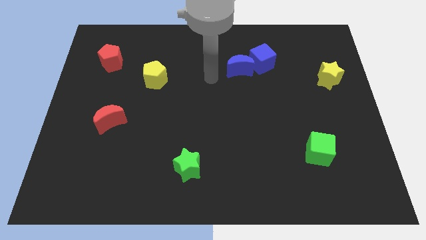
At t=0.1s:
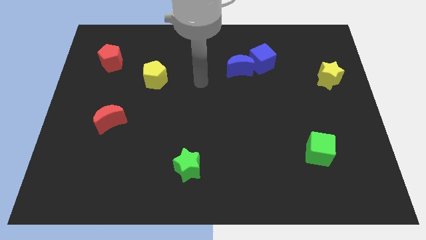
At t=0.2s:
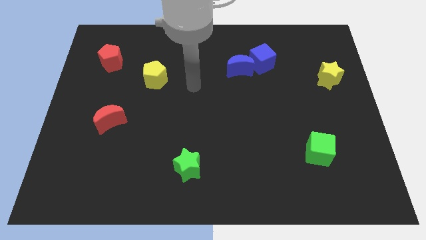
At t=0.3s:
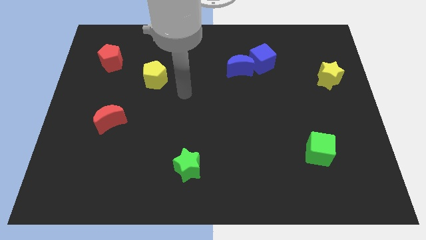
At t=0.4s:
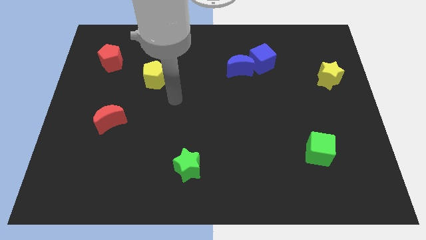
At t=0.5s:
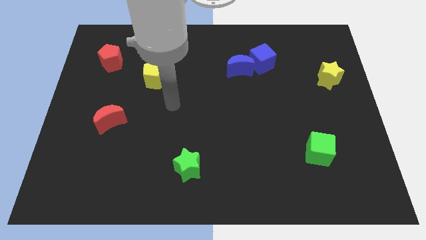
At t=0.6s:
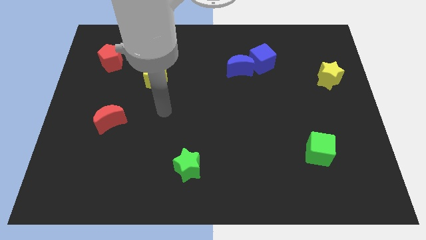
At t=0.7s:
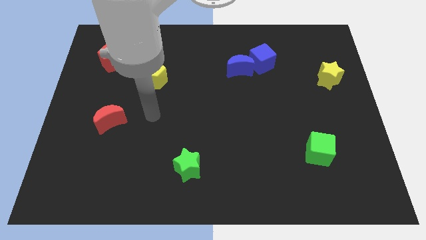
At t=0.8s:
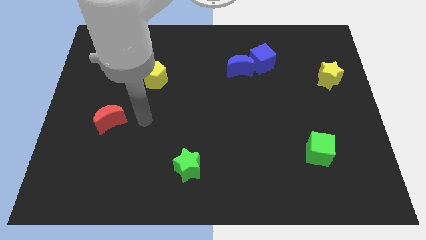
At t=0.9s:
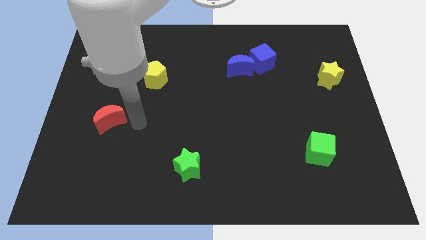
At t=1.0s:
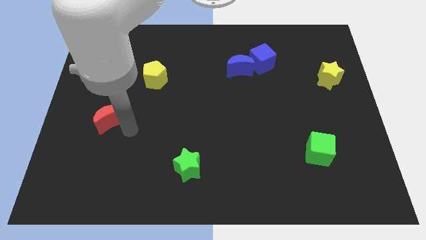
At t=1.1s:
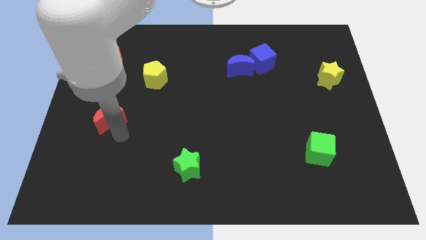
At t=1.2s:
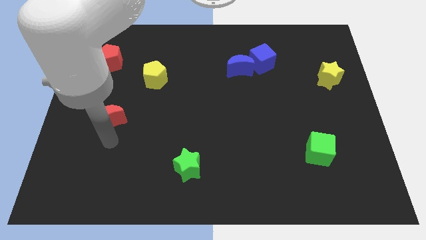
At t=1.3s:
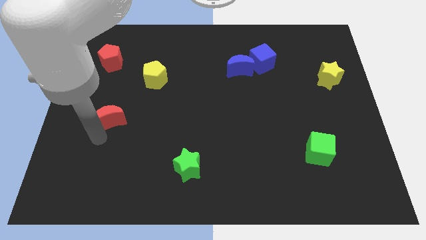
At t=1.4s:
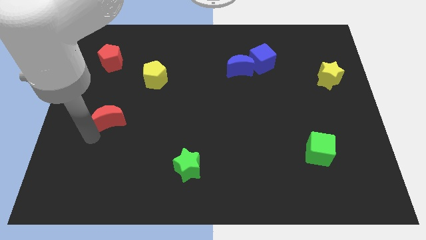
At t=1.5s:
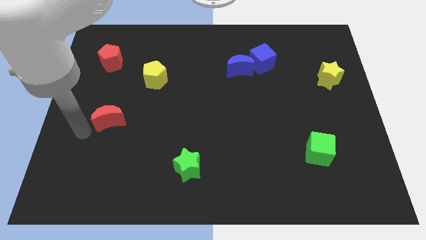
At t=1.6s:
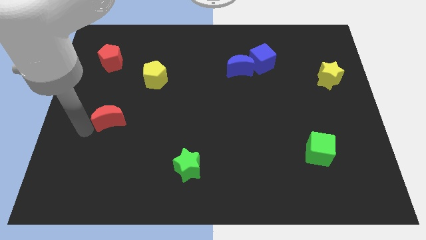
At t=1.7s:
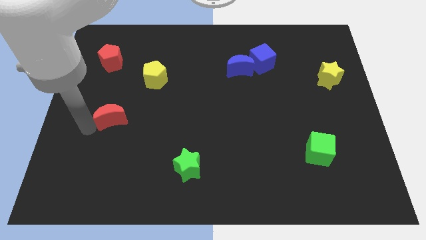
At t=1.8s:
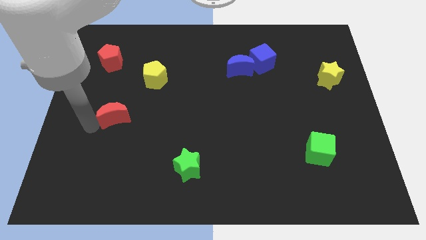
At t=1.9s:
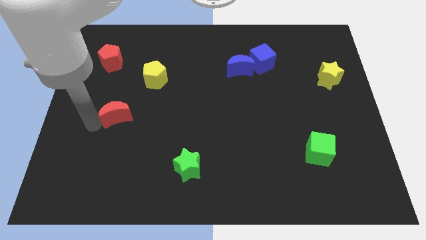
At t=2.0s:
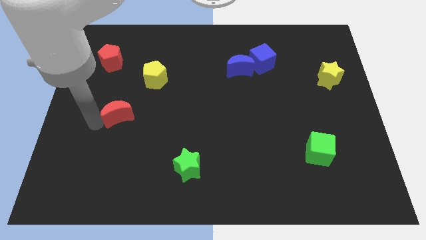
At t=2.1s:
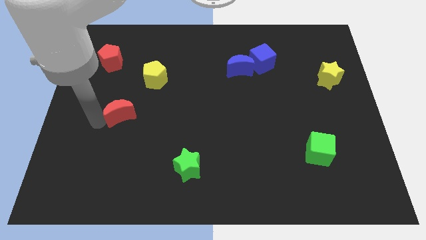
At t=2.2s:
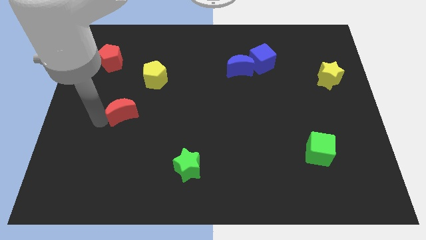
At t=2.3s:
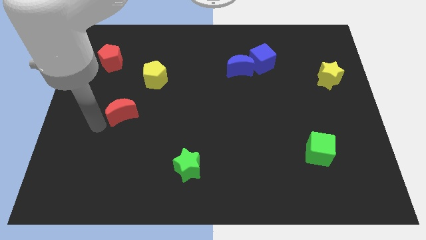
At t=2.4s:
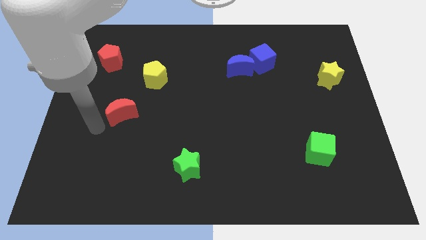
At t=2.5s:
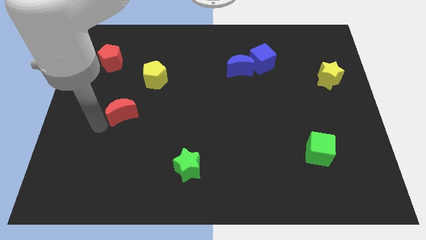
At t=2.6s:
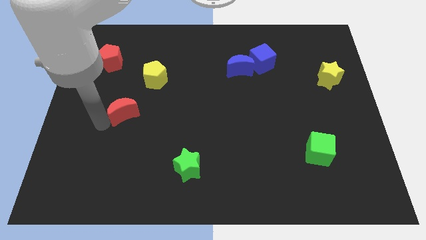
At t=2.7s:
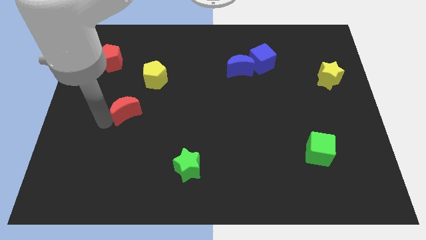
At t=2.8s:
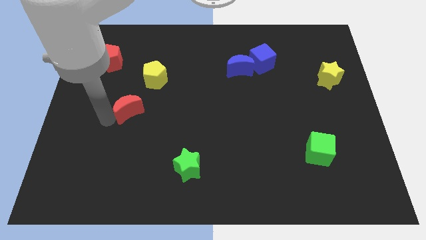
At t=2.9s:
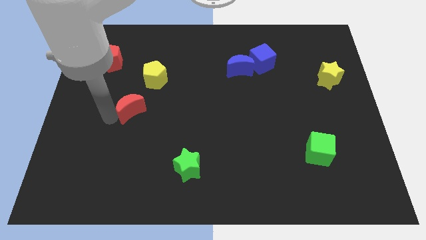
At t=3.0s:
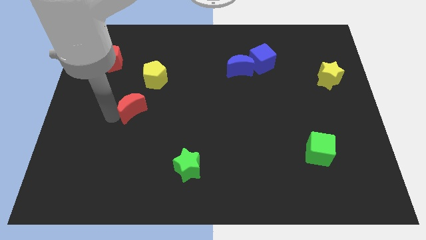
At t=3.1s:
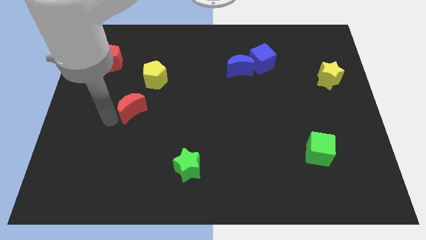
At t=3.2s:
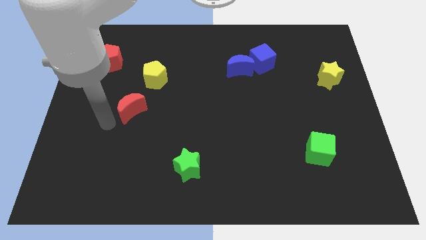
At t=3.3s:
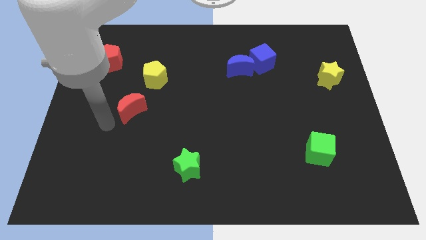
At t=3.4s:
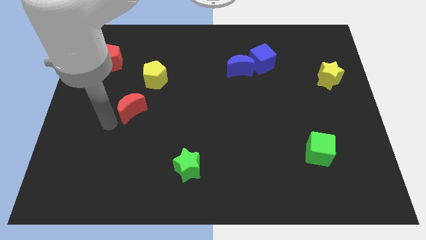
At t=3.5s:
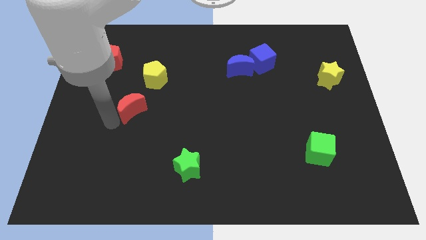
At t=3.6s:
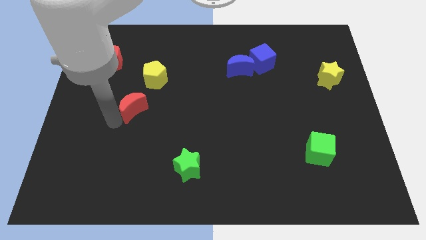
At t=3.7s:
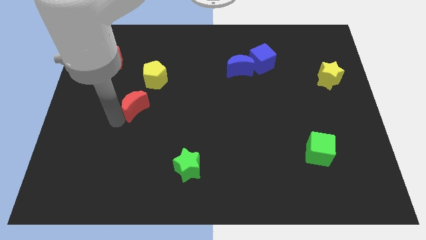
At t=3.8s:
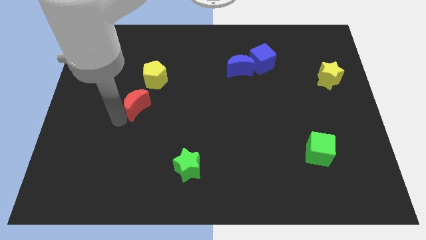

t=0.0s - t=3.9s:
slightly push the red moon diagonally up and right

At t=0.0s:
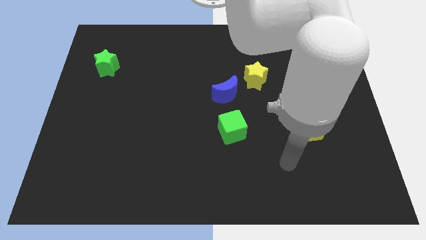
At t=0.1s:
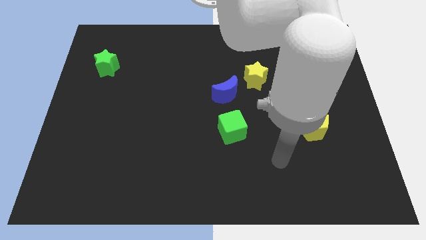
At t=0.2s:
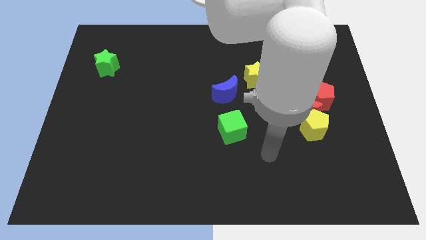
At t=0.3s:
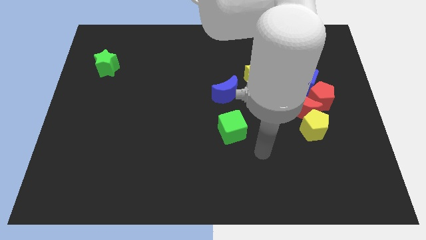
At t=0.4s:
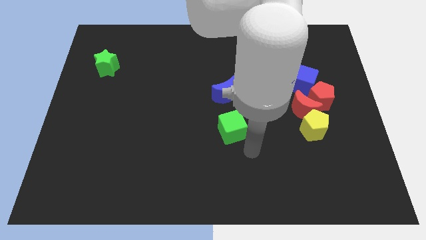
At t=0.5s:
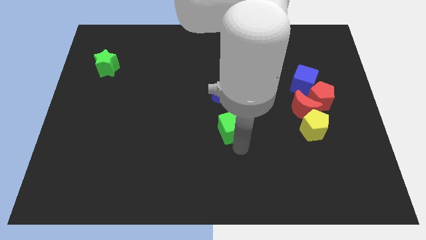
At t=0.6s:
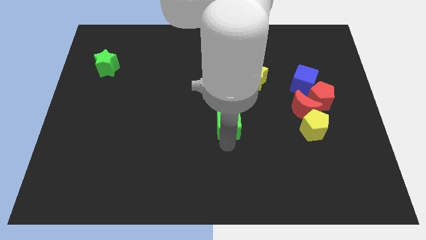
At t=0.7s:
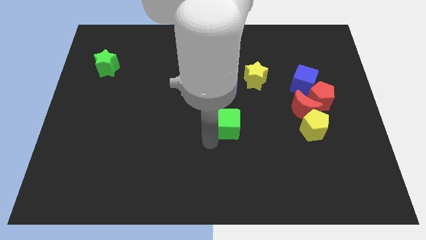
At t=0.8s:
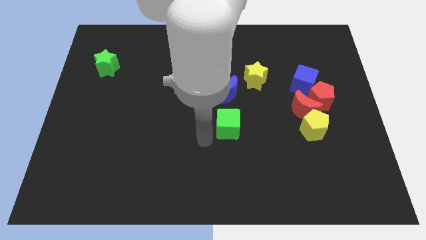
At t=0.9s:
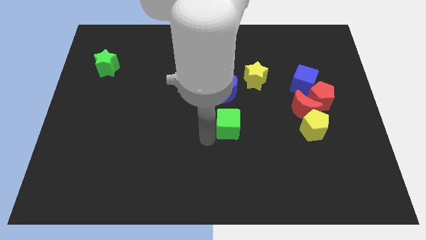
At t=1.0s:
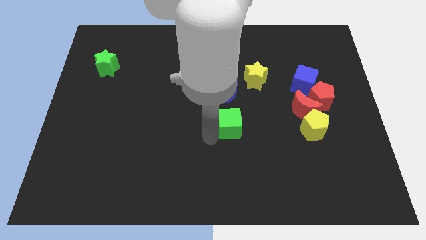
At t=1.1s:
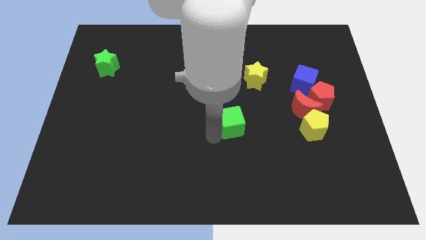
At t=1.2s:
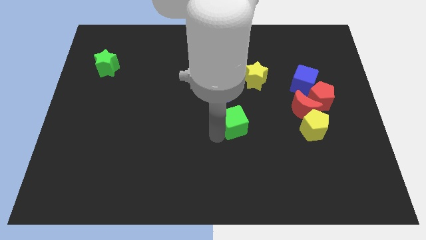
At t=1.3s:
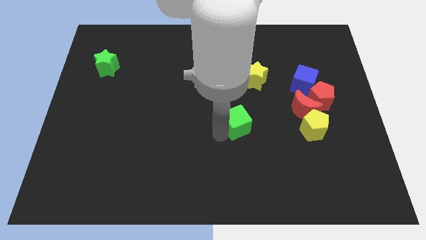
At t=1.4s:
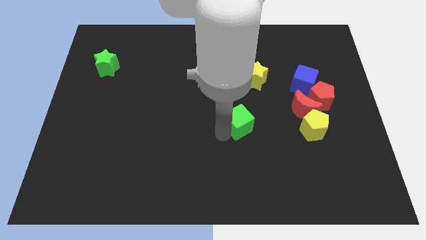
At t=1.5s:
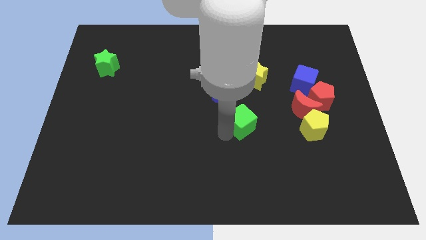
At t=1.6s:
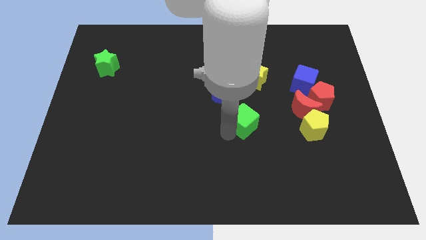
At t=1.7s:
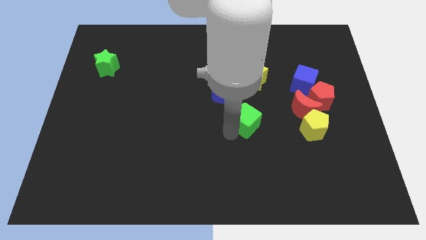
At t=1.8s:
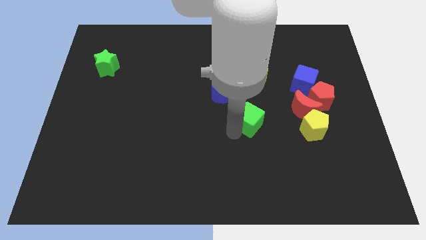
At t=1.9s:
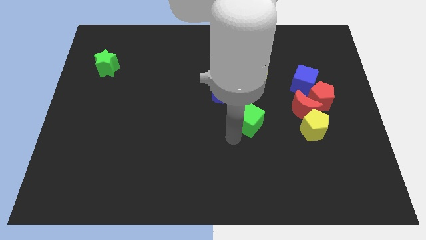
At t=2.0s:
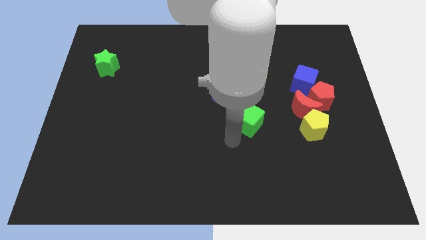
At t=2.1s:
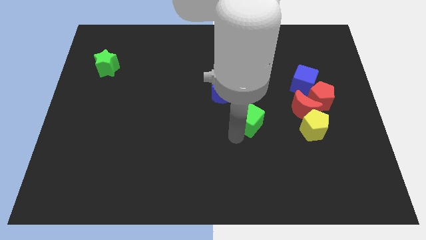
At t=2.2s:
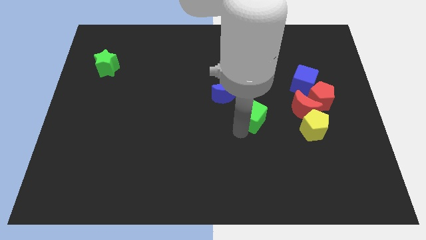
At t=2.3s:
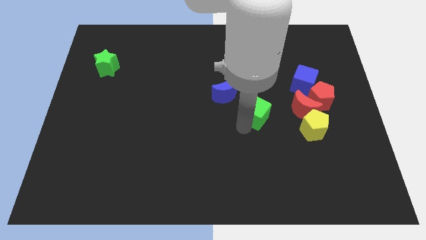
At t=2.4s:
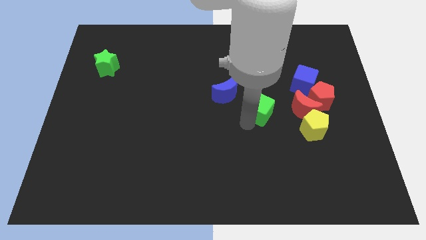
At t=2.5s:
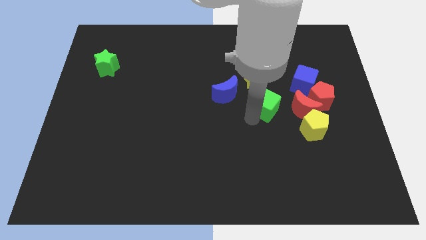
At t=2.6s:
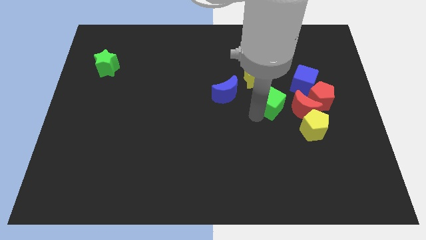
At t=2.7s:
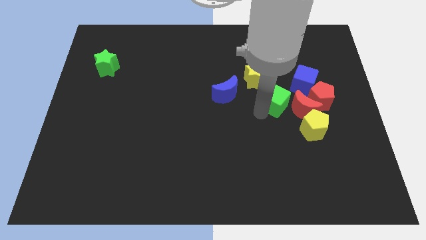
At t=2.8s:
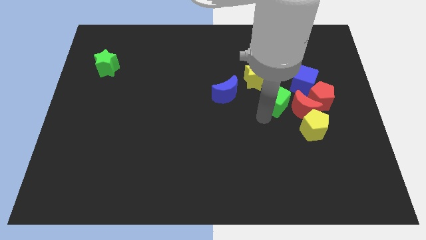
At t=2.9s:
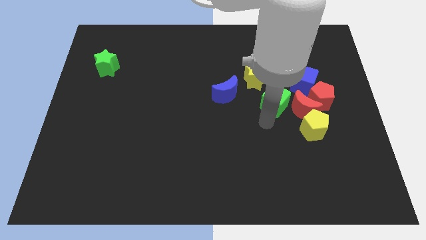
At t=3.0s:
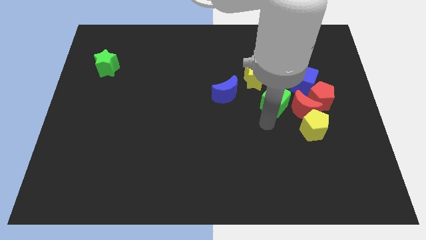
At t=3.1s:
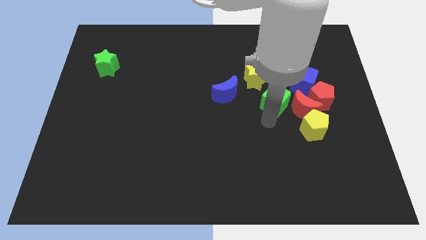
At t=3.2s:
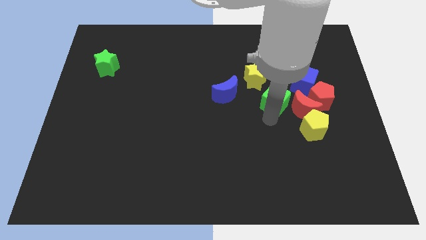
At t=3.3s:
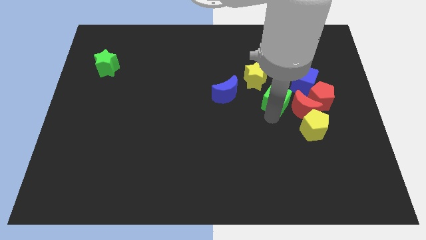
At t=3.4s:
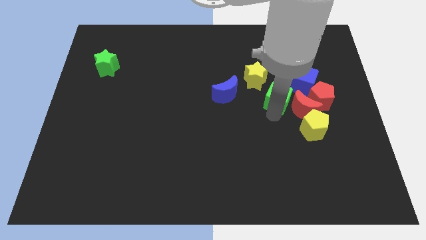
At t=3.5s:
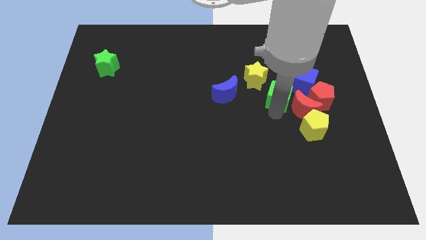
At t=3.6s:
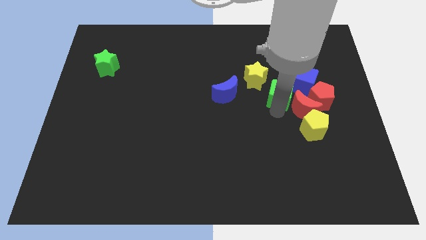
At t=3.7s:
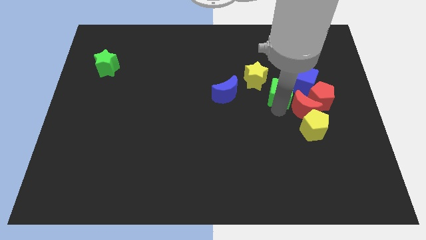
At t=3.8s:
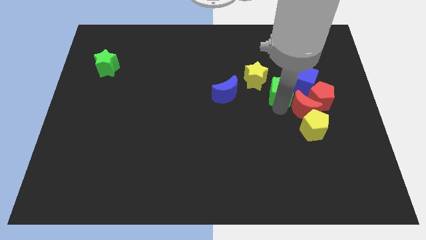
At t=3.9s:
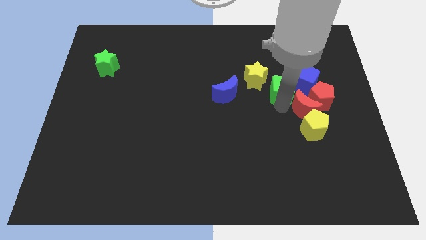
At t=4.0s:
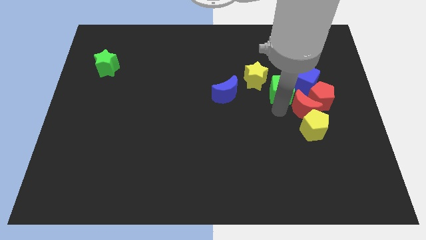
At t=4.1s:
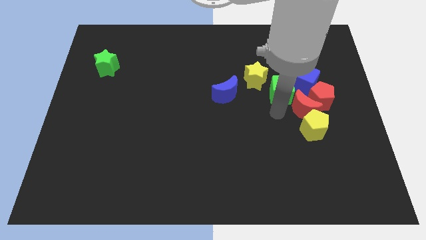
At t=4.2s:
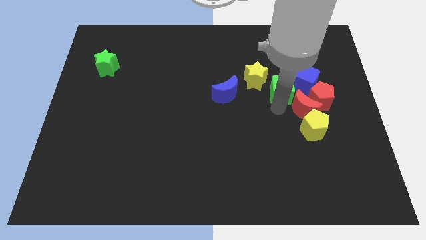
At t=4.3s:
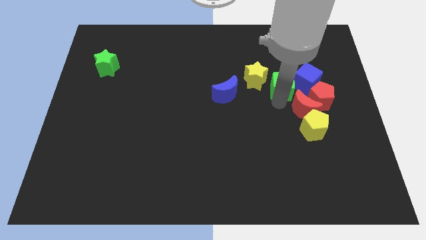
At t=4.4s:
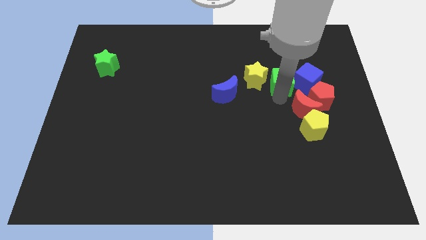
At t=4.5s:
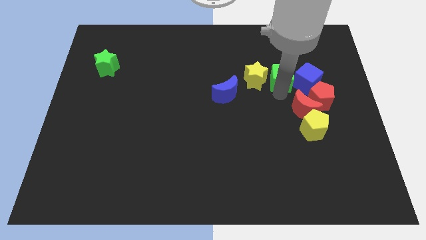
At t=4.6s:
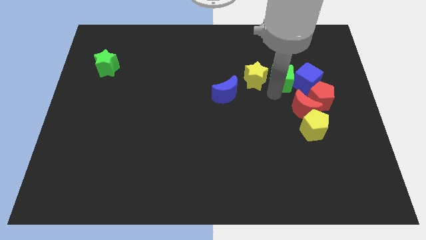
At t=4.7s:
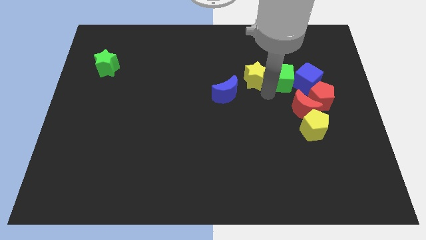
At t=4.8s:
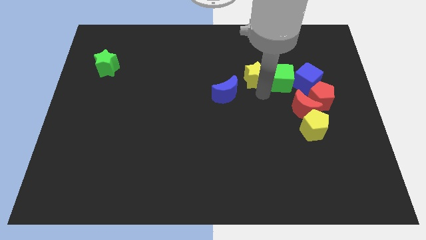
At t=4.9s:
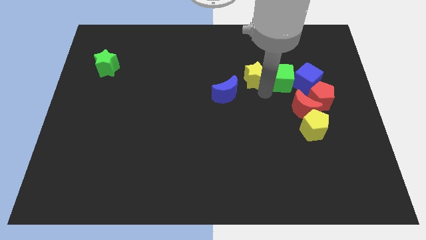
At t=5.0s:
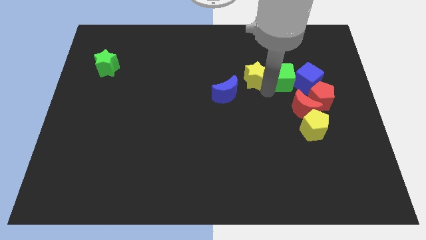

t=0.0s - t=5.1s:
move the green cube up and right diagonally
